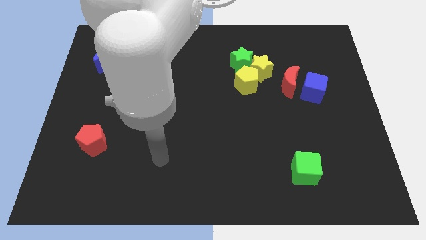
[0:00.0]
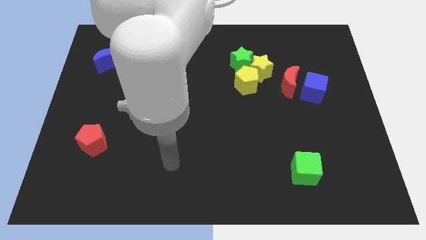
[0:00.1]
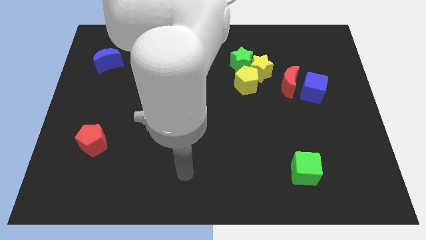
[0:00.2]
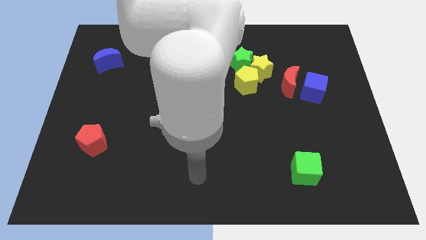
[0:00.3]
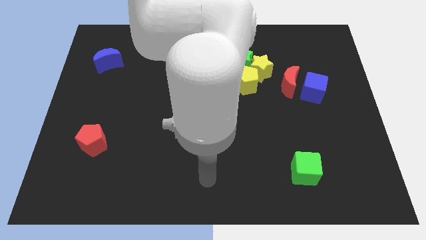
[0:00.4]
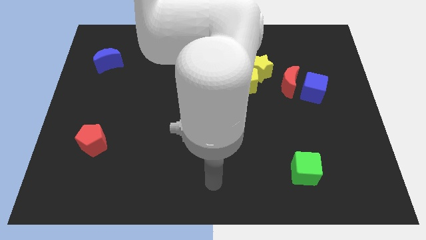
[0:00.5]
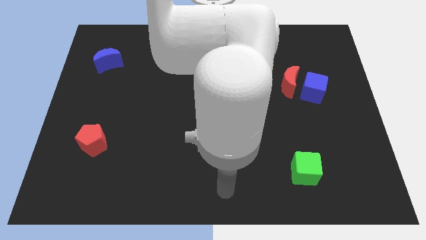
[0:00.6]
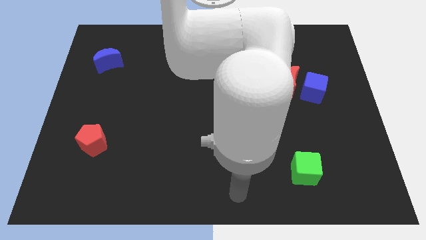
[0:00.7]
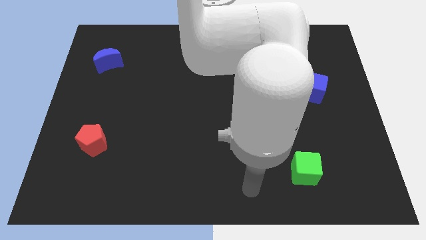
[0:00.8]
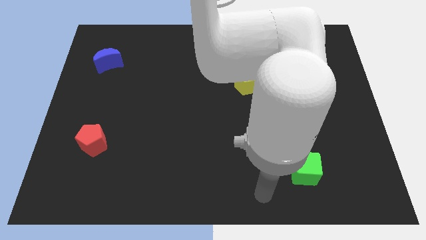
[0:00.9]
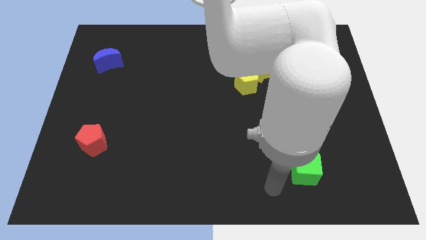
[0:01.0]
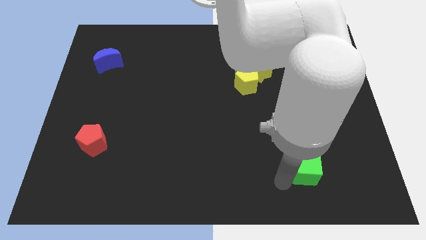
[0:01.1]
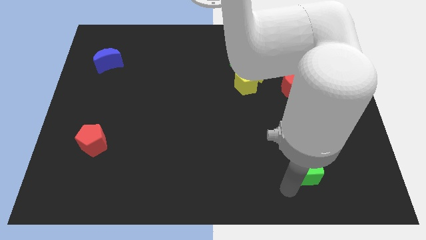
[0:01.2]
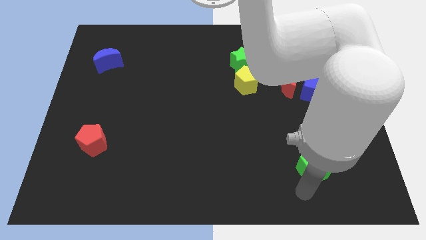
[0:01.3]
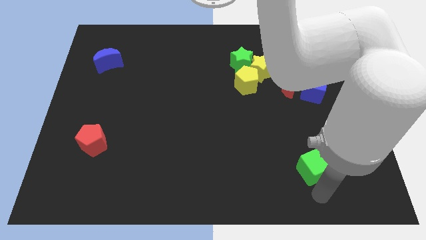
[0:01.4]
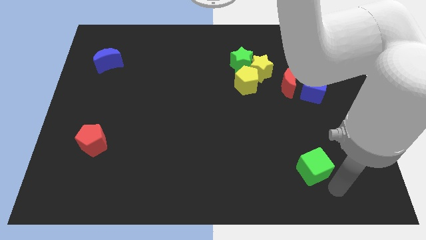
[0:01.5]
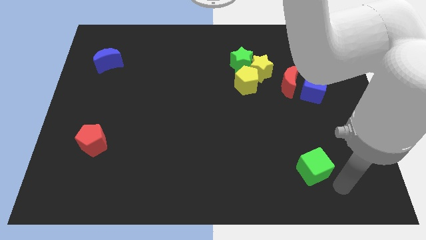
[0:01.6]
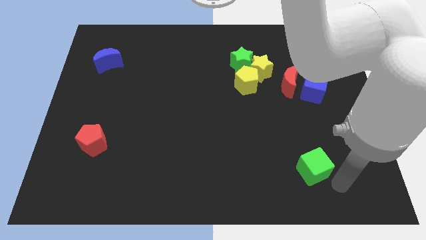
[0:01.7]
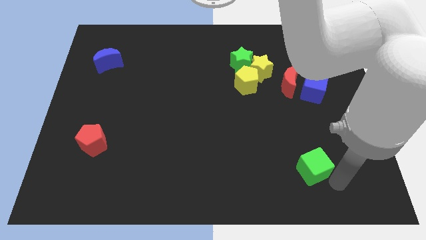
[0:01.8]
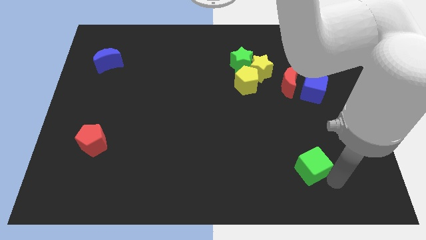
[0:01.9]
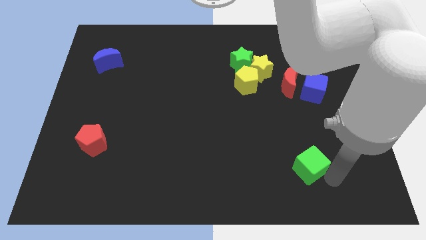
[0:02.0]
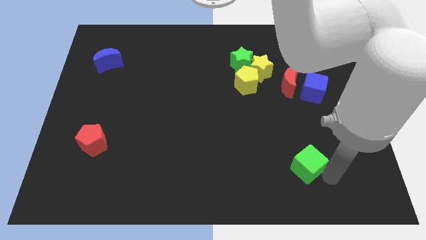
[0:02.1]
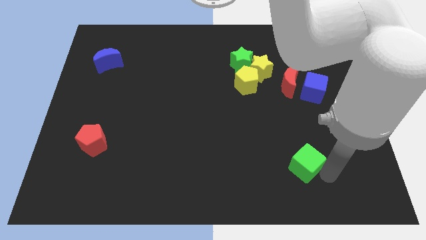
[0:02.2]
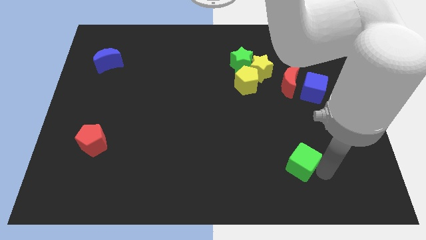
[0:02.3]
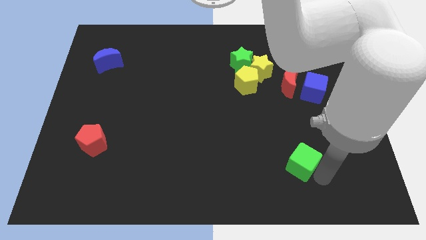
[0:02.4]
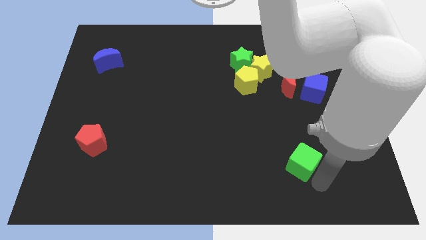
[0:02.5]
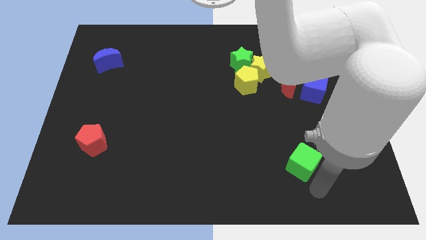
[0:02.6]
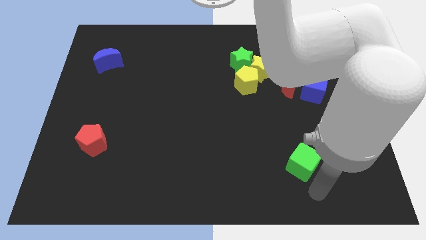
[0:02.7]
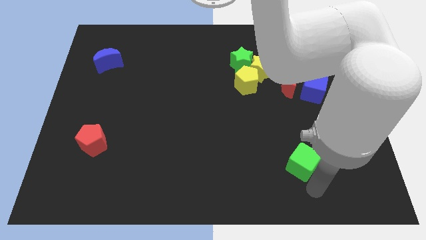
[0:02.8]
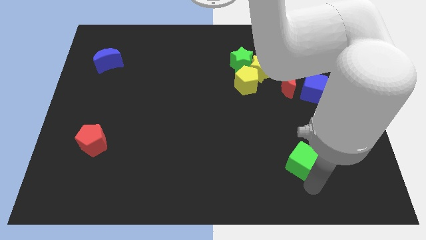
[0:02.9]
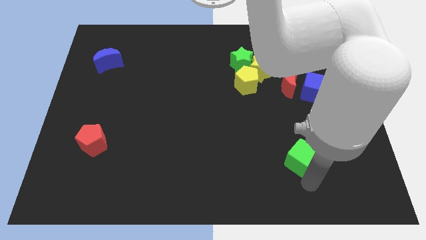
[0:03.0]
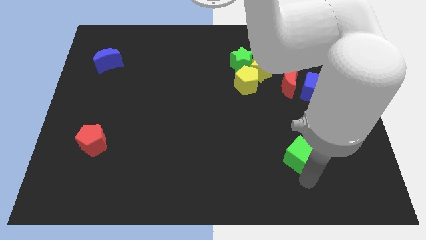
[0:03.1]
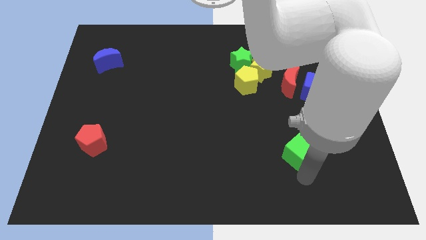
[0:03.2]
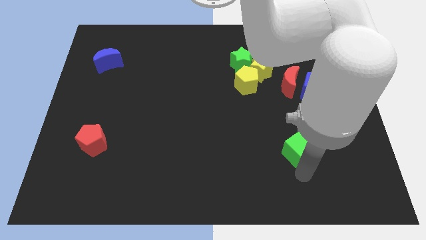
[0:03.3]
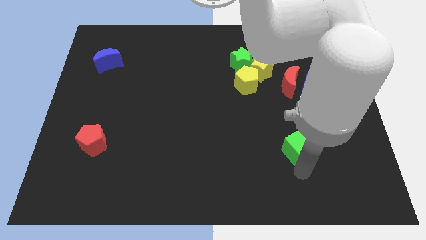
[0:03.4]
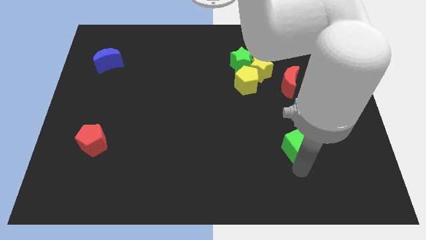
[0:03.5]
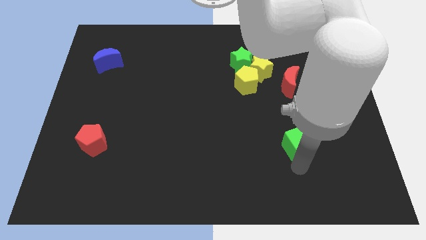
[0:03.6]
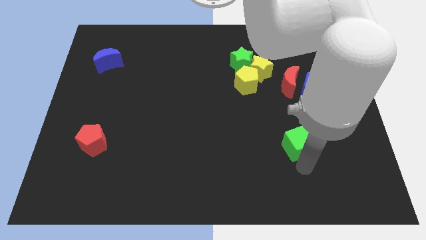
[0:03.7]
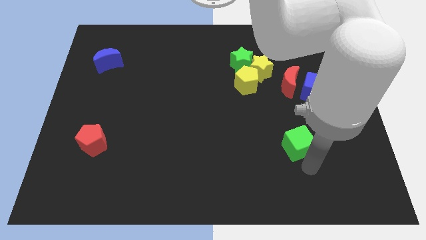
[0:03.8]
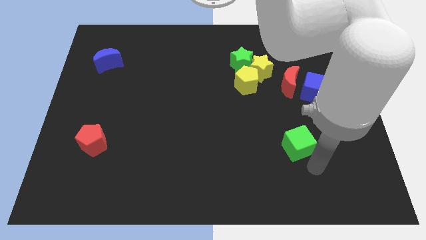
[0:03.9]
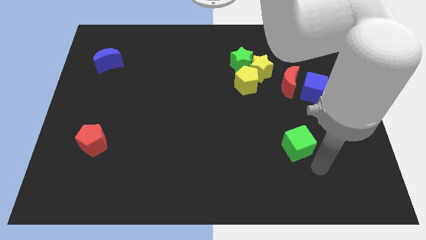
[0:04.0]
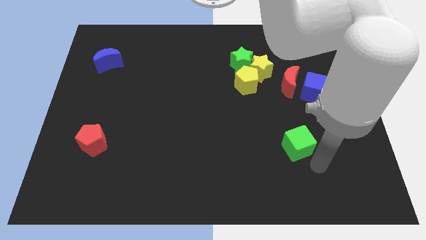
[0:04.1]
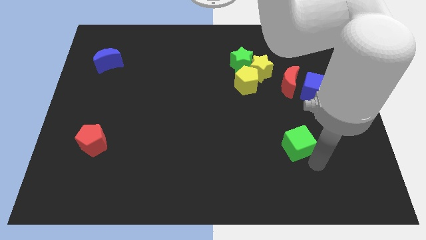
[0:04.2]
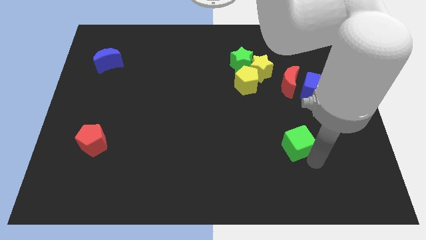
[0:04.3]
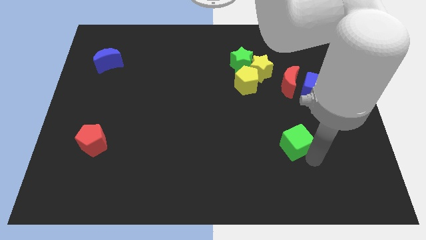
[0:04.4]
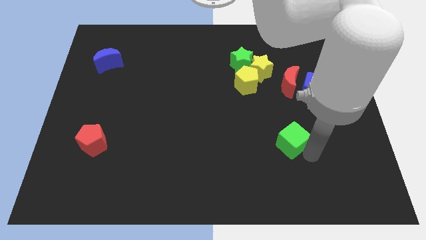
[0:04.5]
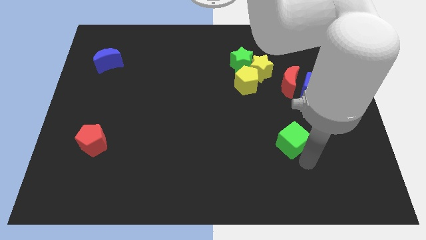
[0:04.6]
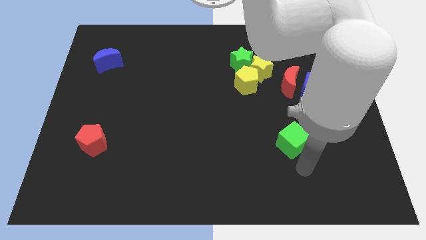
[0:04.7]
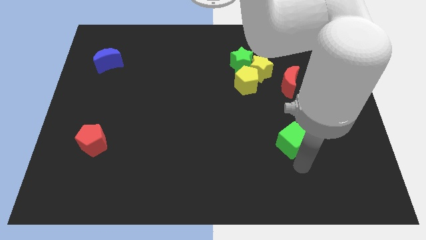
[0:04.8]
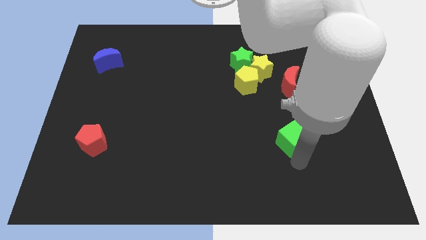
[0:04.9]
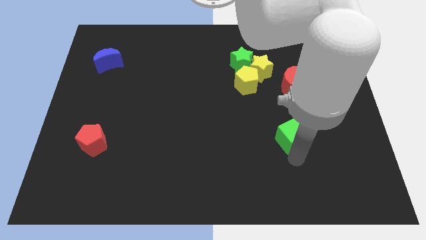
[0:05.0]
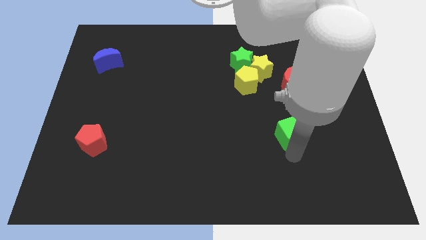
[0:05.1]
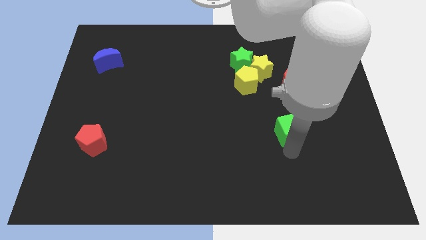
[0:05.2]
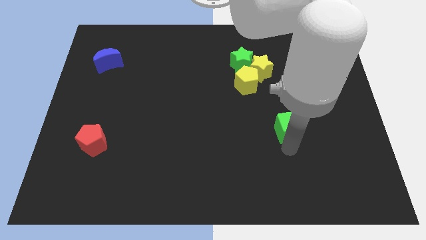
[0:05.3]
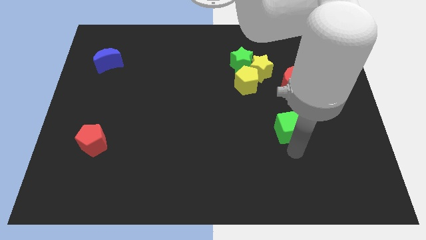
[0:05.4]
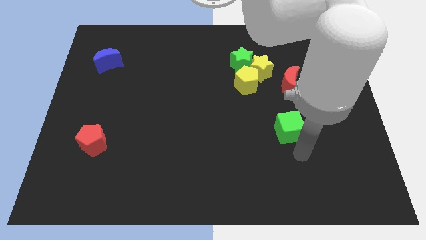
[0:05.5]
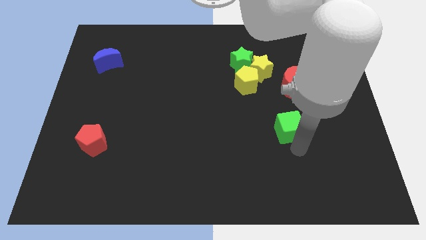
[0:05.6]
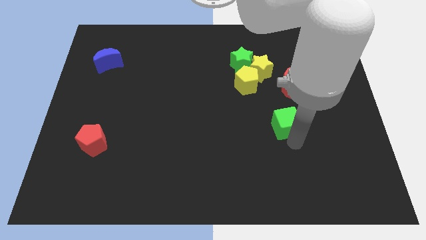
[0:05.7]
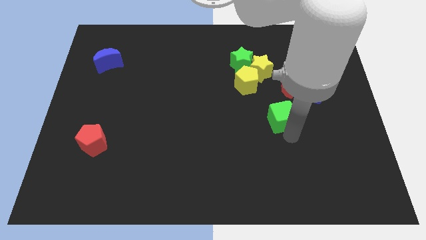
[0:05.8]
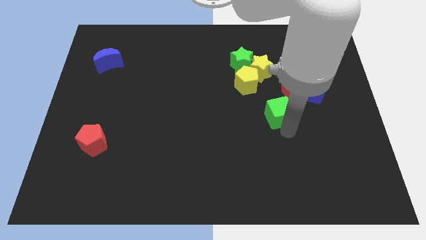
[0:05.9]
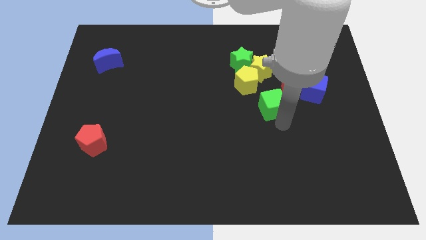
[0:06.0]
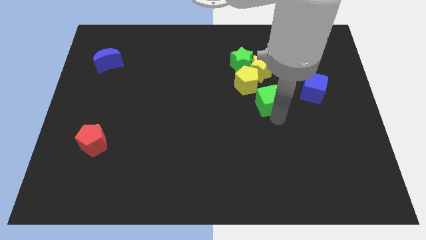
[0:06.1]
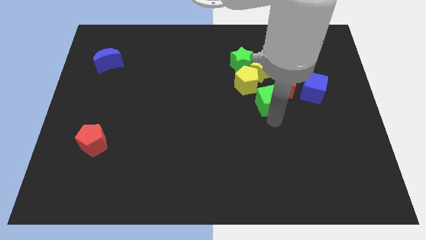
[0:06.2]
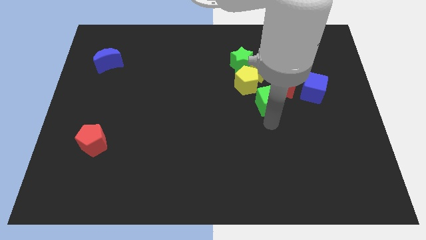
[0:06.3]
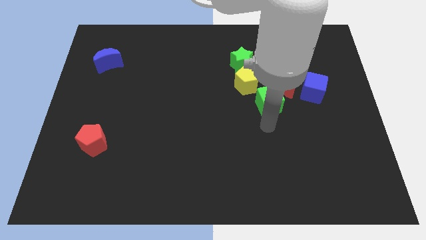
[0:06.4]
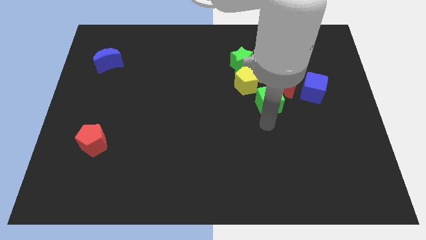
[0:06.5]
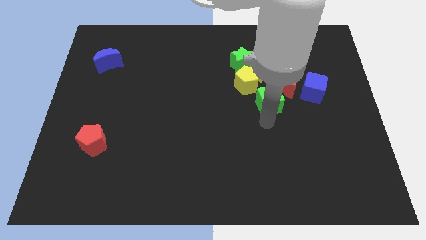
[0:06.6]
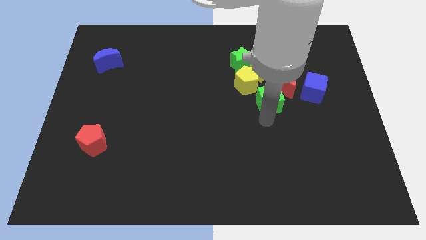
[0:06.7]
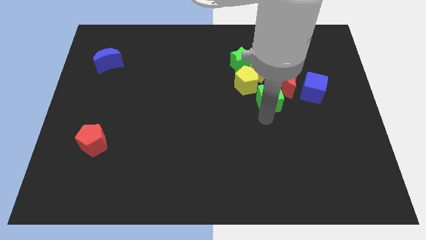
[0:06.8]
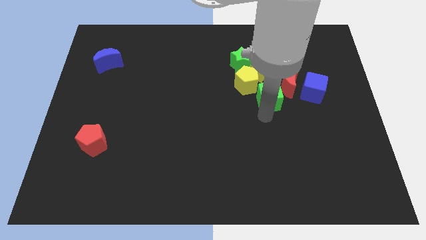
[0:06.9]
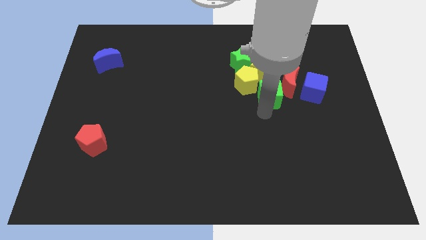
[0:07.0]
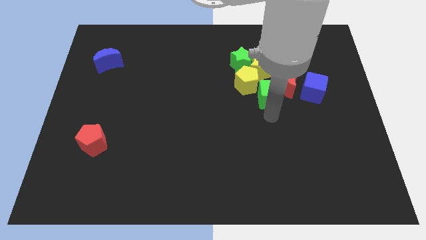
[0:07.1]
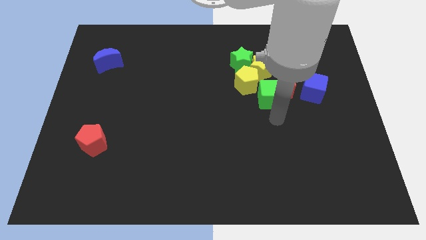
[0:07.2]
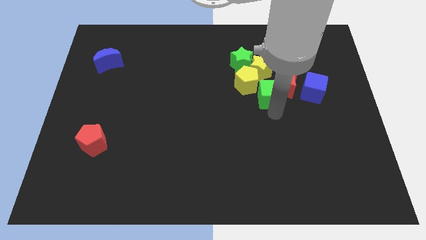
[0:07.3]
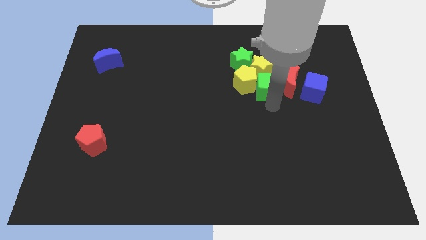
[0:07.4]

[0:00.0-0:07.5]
slide the green cube close to the yellow star
